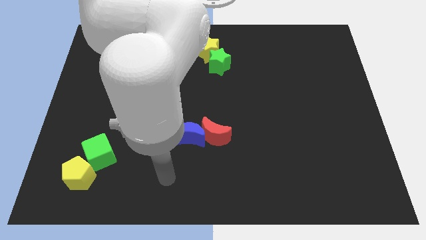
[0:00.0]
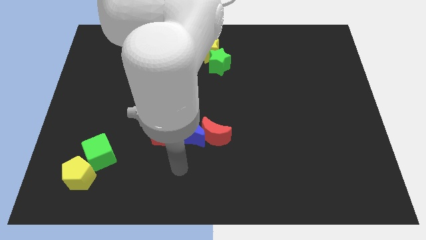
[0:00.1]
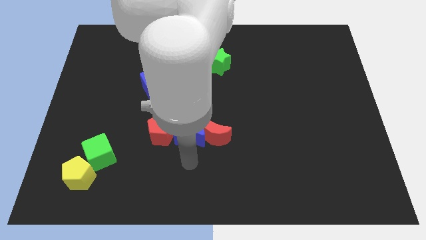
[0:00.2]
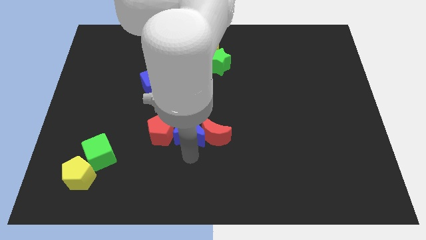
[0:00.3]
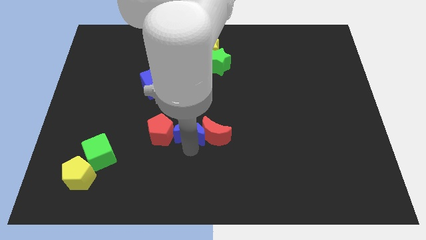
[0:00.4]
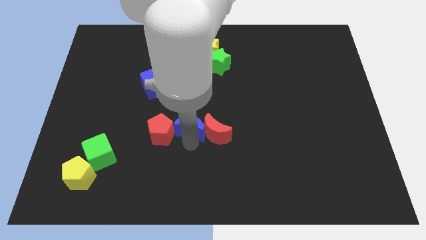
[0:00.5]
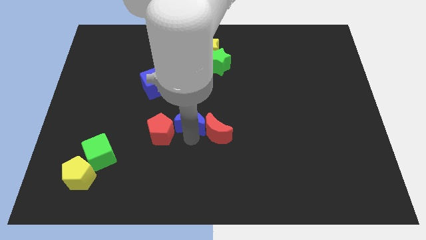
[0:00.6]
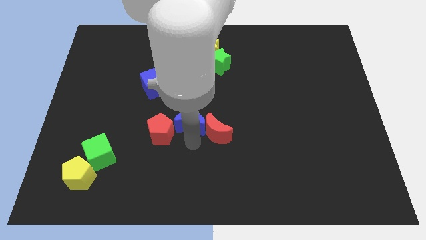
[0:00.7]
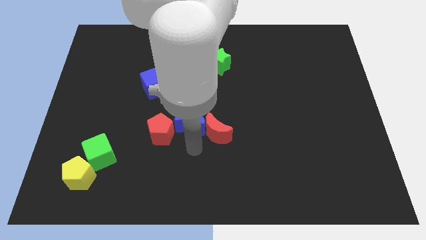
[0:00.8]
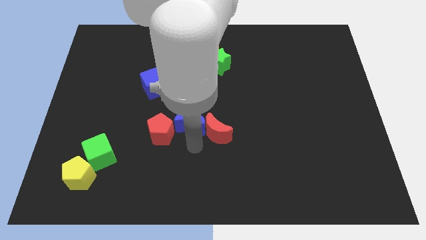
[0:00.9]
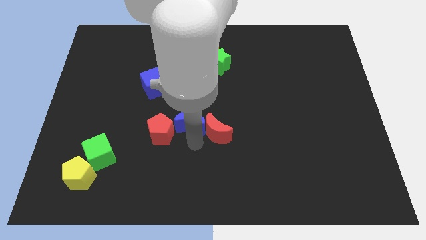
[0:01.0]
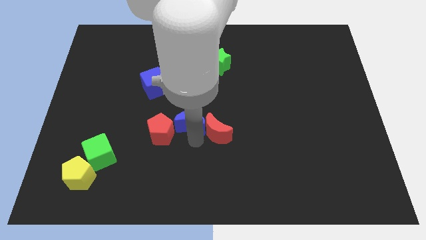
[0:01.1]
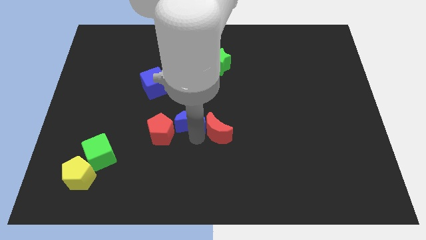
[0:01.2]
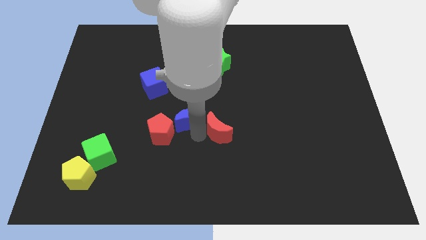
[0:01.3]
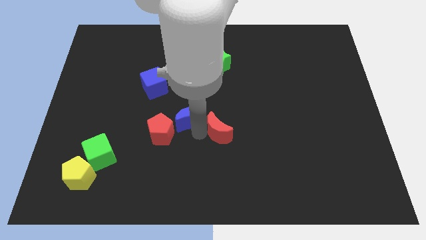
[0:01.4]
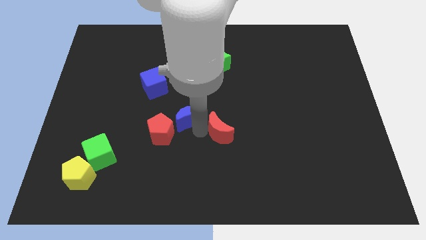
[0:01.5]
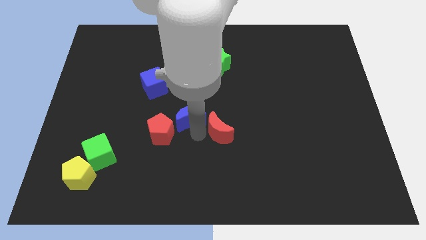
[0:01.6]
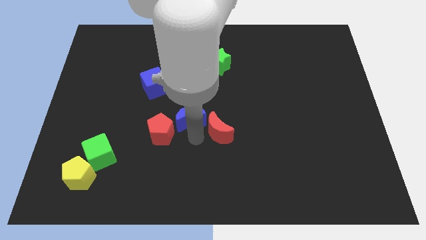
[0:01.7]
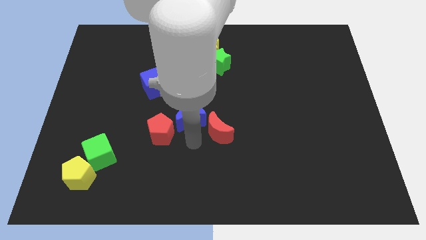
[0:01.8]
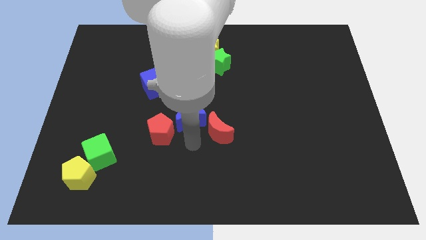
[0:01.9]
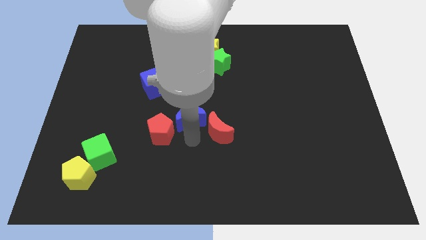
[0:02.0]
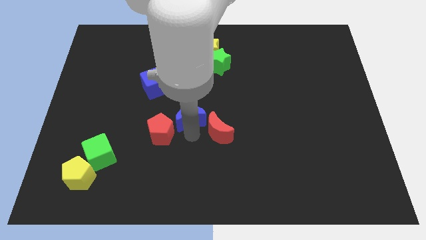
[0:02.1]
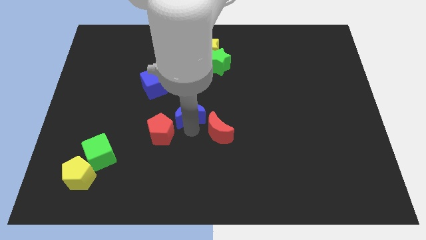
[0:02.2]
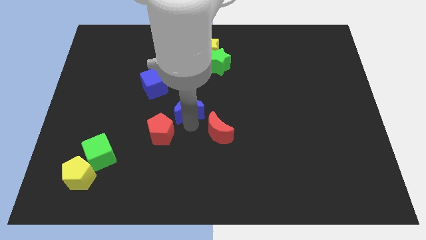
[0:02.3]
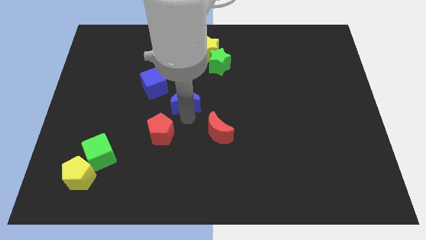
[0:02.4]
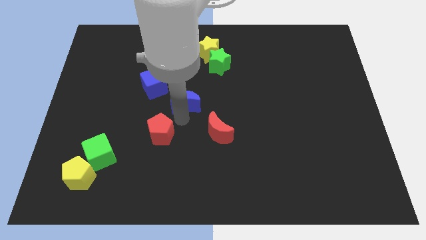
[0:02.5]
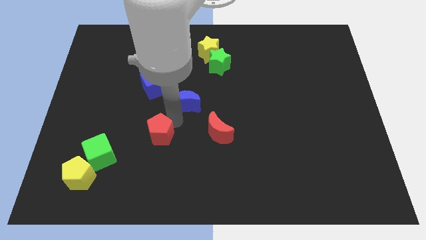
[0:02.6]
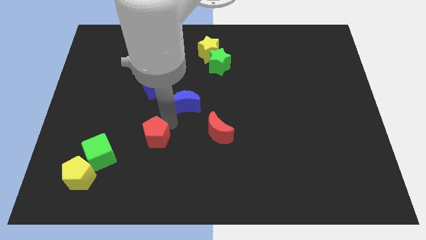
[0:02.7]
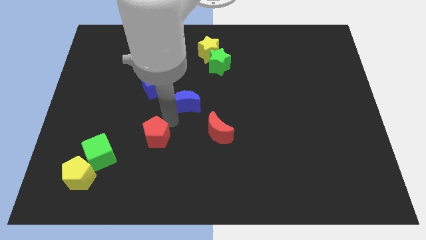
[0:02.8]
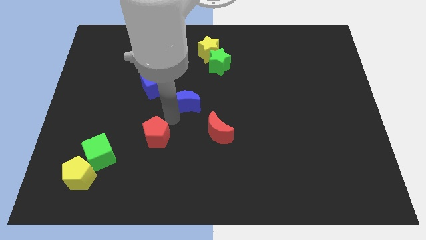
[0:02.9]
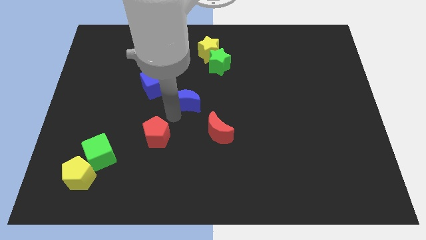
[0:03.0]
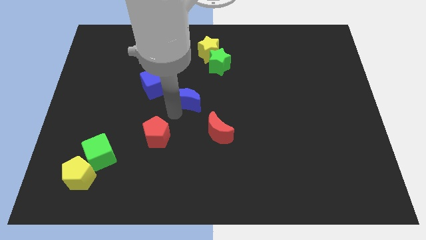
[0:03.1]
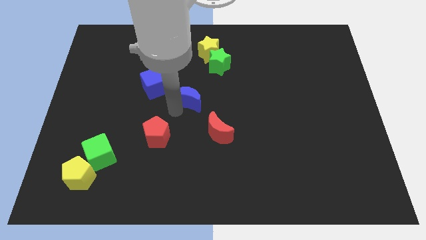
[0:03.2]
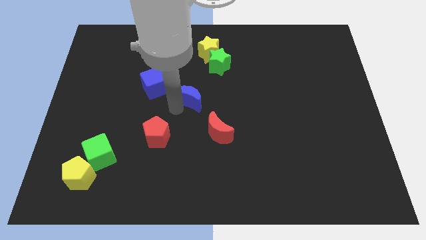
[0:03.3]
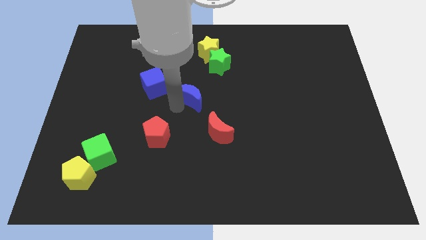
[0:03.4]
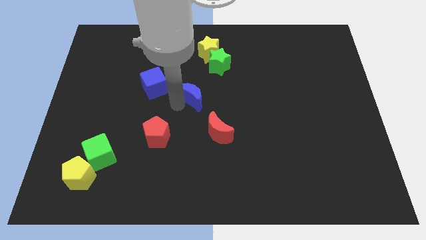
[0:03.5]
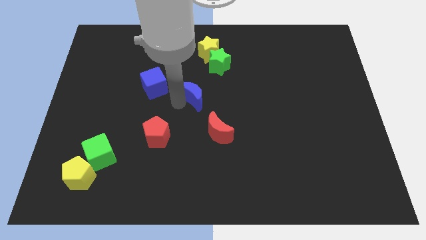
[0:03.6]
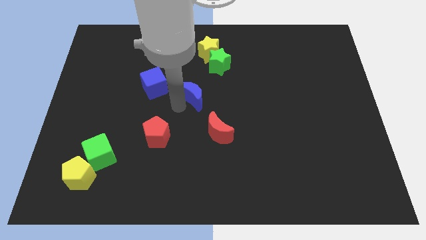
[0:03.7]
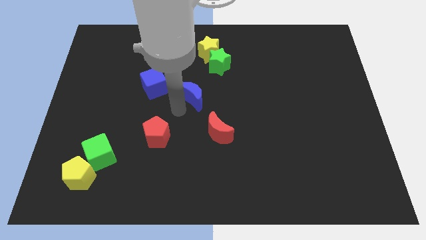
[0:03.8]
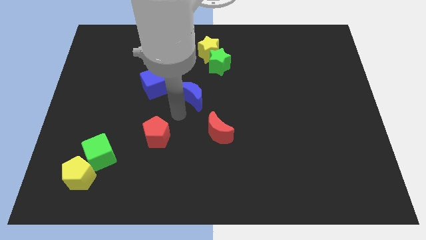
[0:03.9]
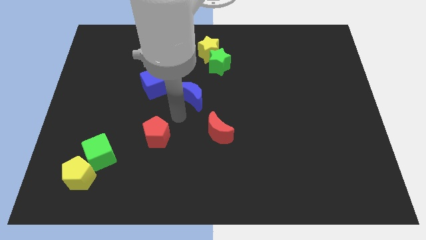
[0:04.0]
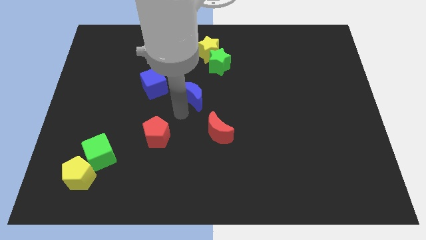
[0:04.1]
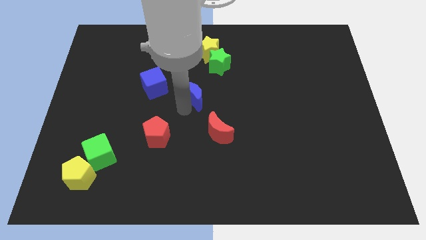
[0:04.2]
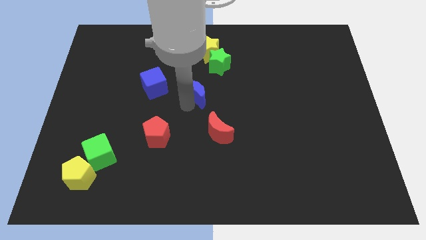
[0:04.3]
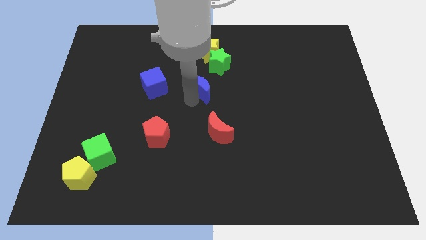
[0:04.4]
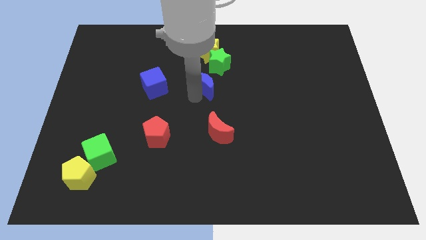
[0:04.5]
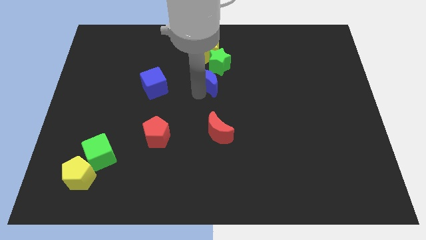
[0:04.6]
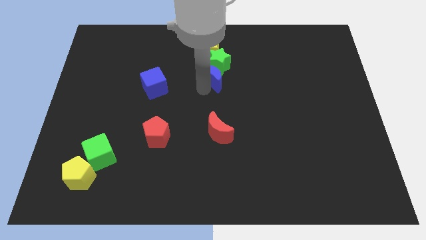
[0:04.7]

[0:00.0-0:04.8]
put the blue moon towards the green star

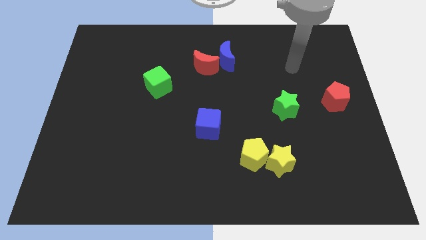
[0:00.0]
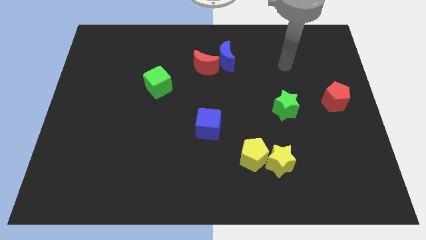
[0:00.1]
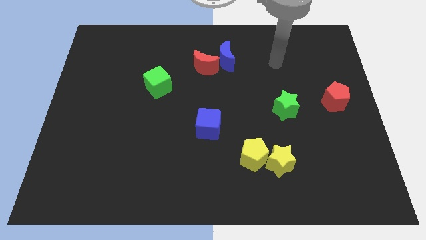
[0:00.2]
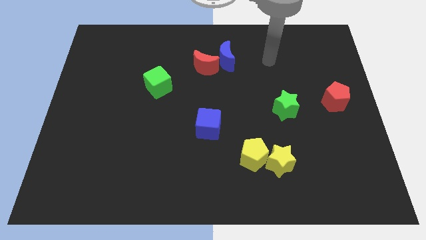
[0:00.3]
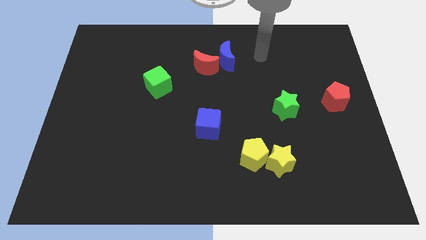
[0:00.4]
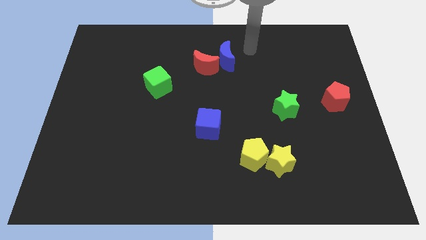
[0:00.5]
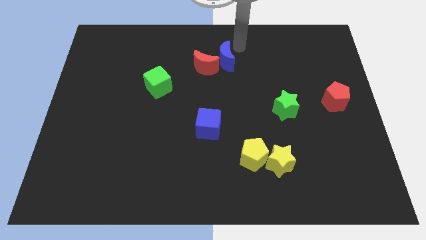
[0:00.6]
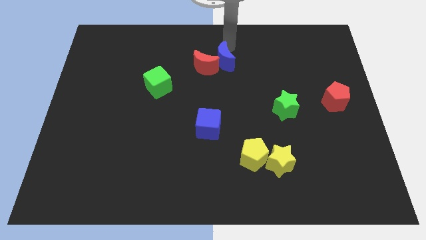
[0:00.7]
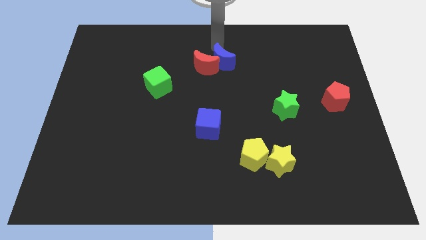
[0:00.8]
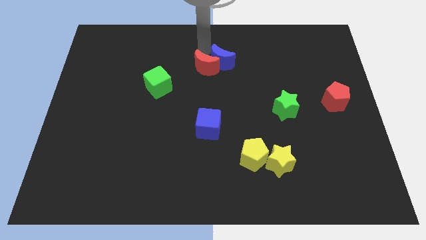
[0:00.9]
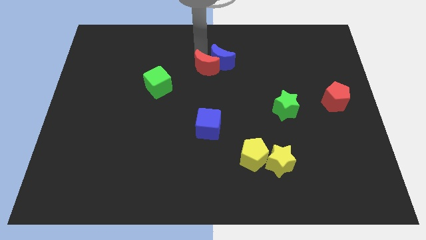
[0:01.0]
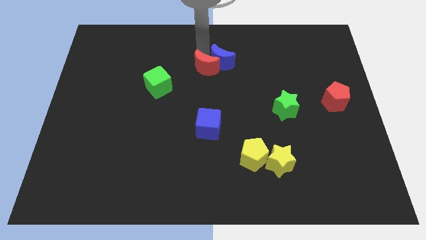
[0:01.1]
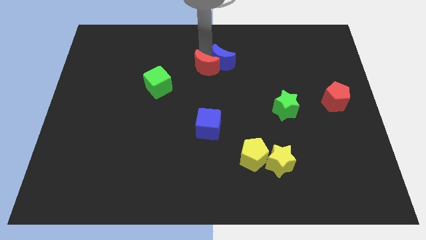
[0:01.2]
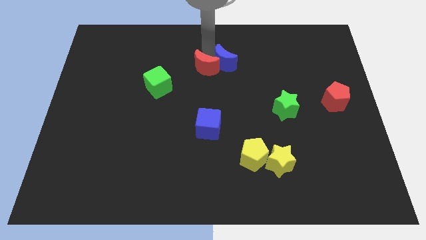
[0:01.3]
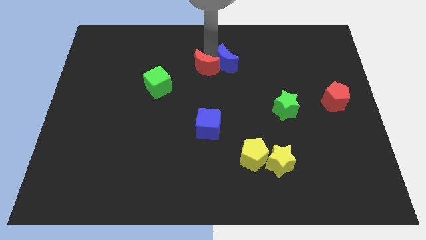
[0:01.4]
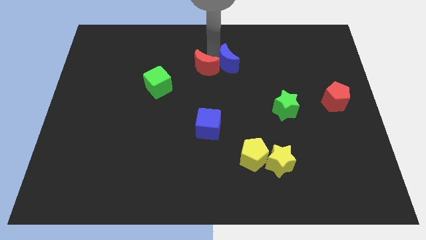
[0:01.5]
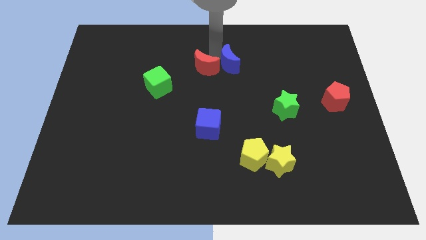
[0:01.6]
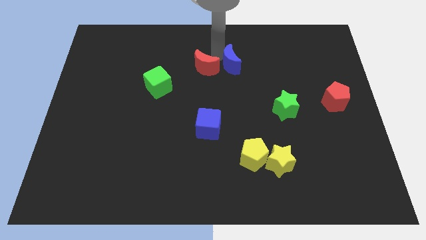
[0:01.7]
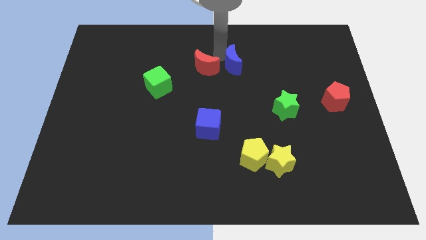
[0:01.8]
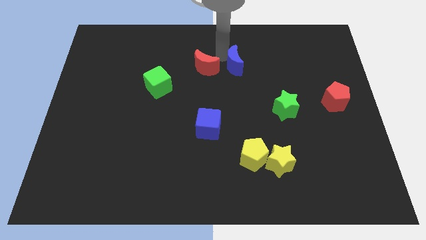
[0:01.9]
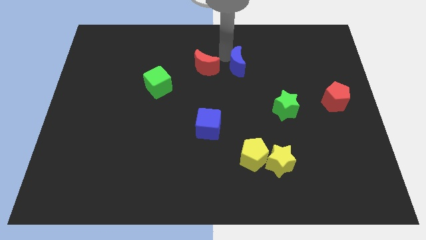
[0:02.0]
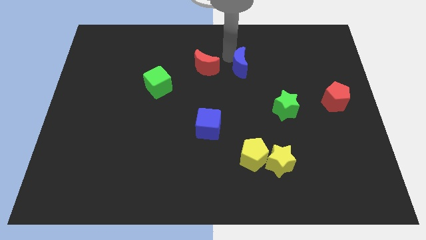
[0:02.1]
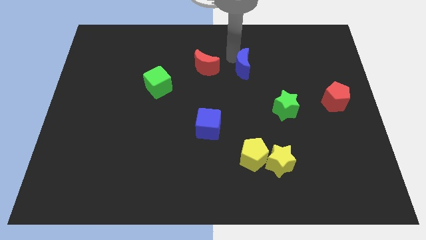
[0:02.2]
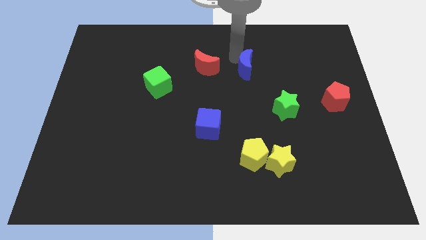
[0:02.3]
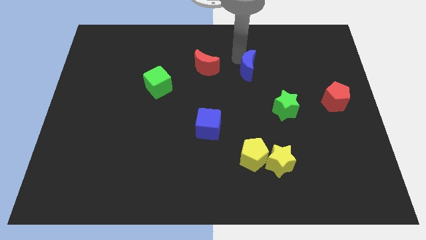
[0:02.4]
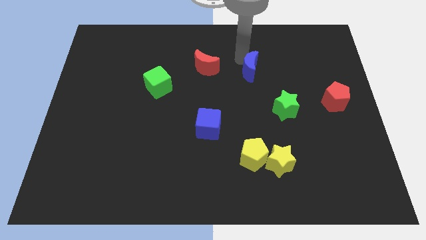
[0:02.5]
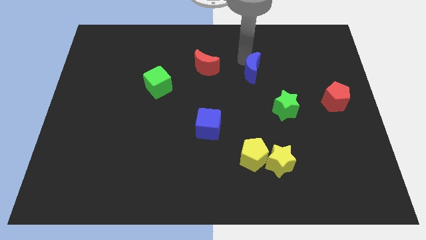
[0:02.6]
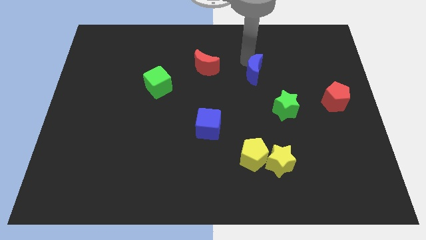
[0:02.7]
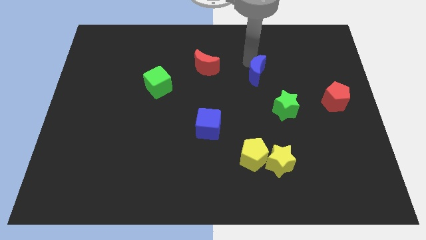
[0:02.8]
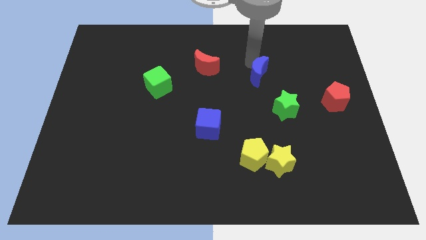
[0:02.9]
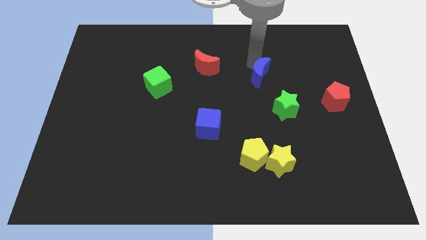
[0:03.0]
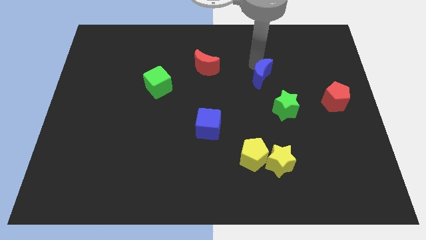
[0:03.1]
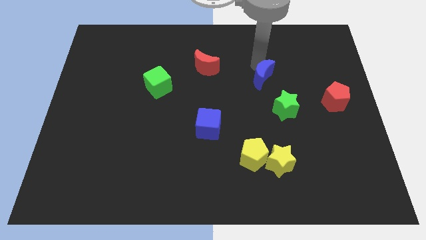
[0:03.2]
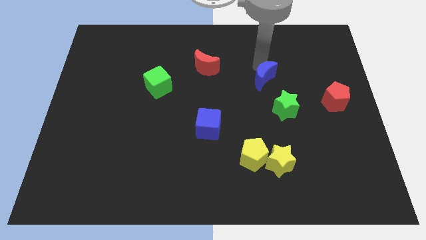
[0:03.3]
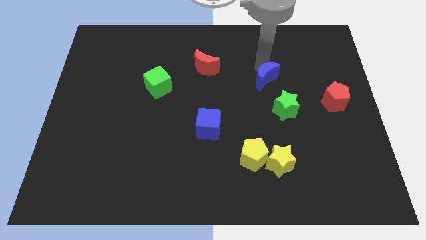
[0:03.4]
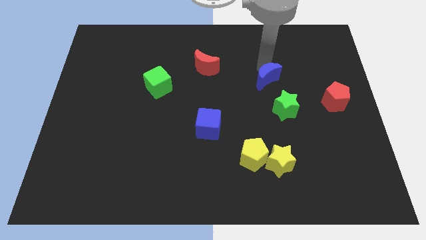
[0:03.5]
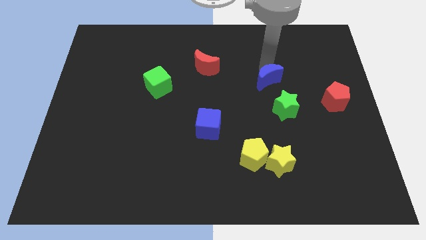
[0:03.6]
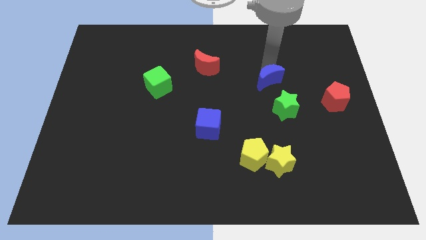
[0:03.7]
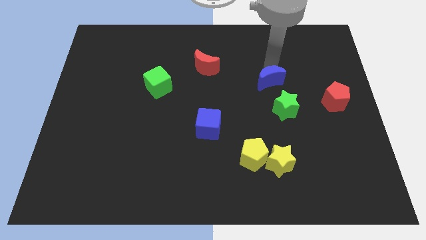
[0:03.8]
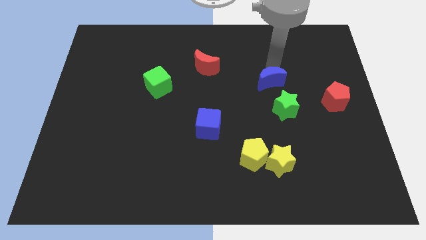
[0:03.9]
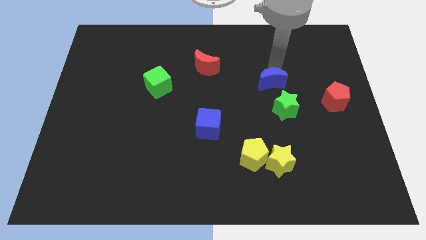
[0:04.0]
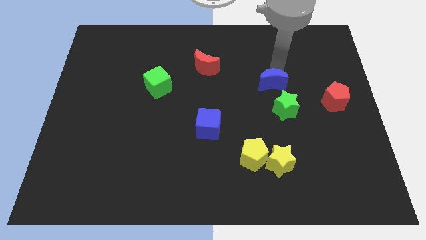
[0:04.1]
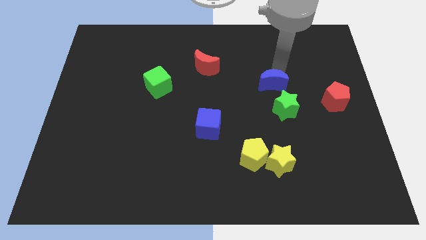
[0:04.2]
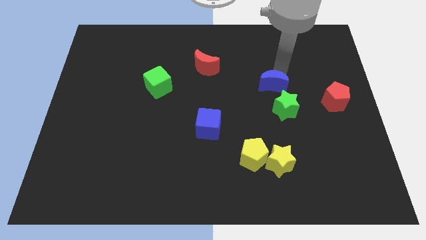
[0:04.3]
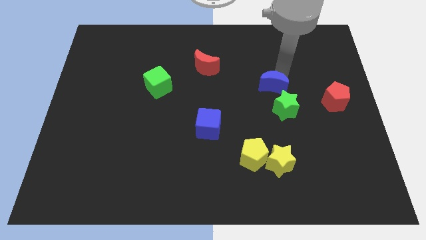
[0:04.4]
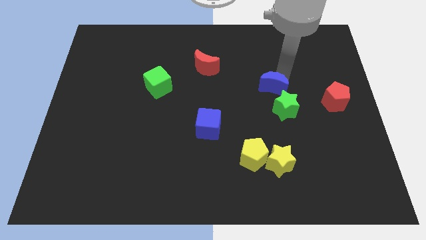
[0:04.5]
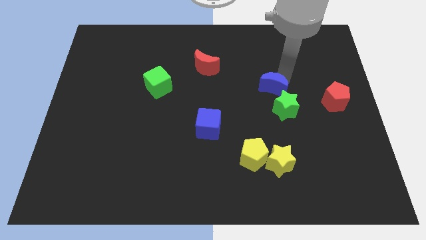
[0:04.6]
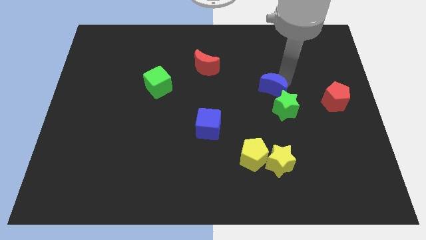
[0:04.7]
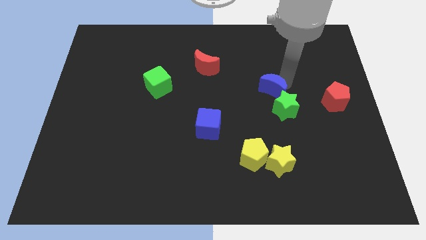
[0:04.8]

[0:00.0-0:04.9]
move the blue moon next to the green star
